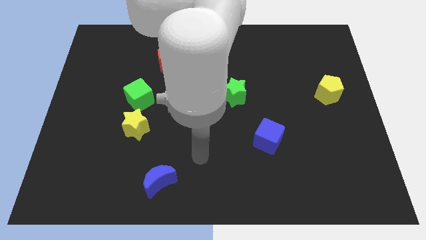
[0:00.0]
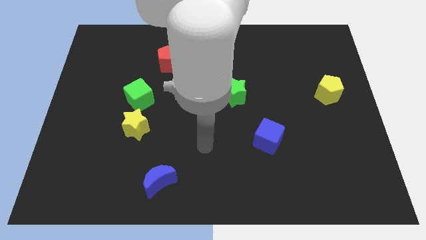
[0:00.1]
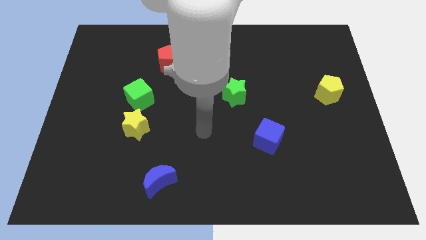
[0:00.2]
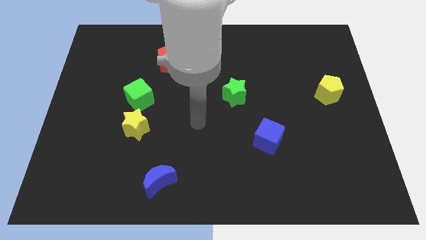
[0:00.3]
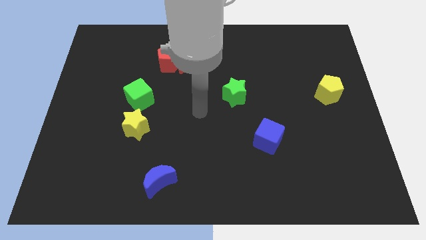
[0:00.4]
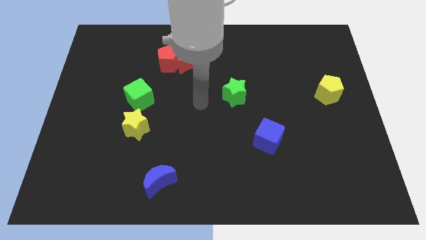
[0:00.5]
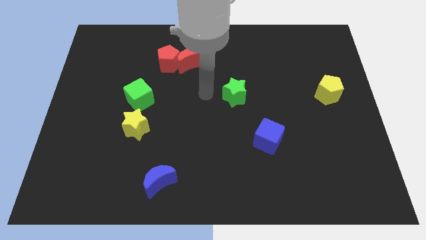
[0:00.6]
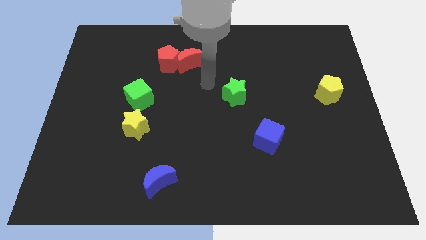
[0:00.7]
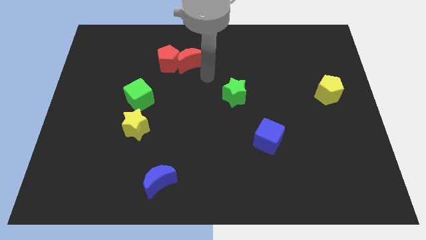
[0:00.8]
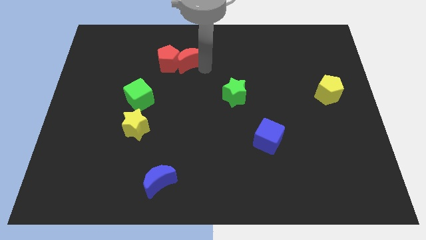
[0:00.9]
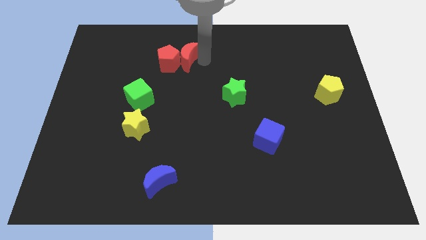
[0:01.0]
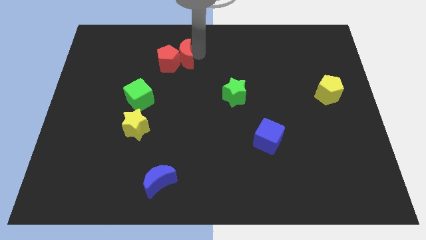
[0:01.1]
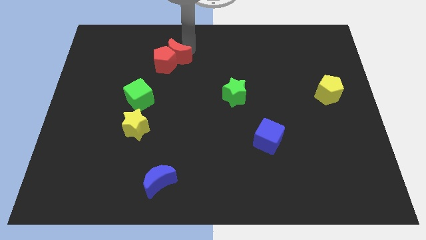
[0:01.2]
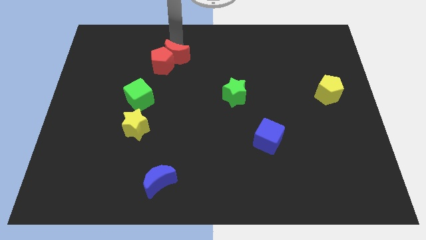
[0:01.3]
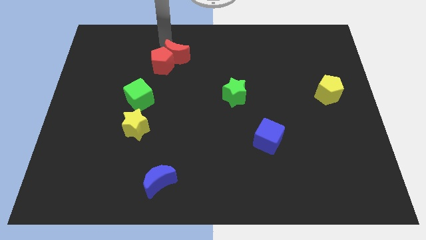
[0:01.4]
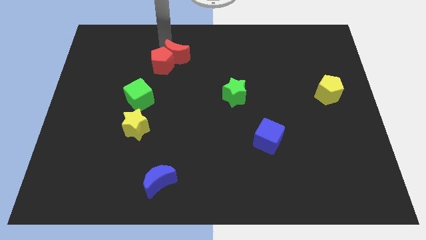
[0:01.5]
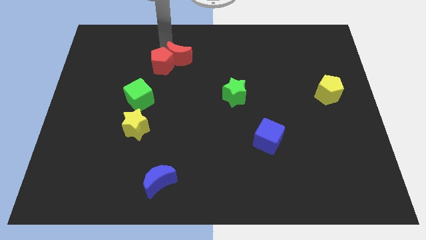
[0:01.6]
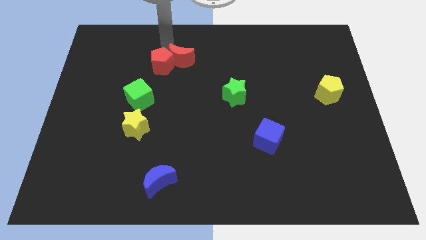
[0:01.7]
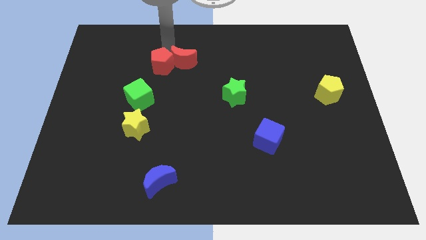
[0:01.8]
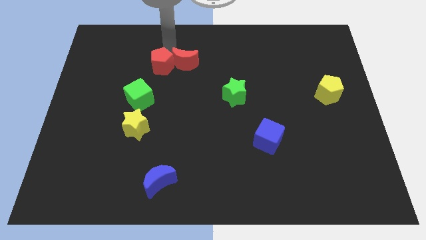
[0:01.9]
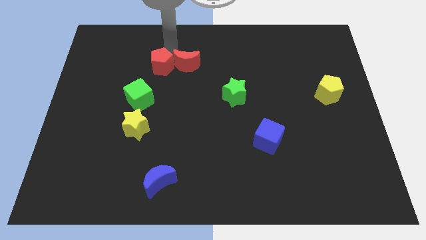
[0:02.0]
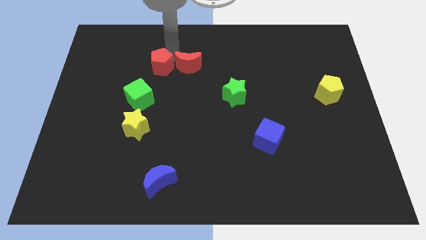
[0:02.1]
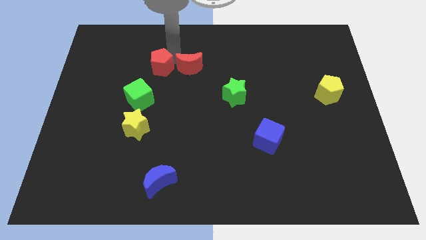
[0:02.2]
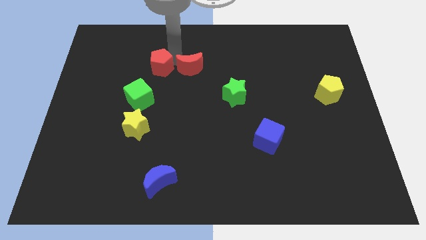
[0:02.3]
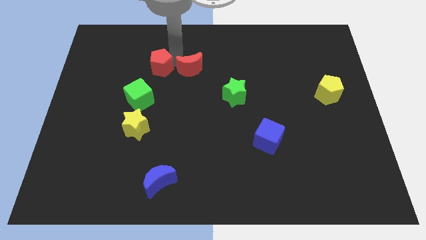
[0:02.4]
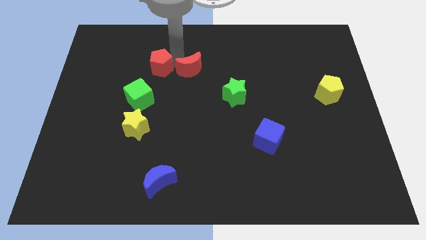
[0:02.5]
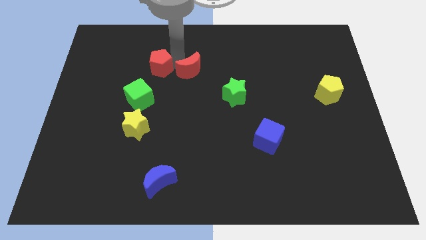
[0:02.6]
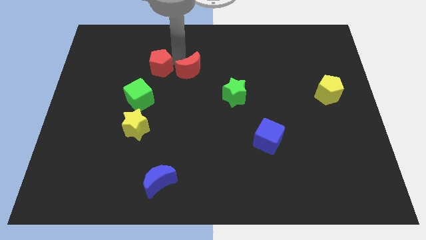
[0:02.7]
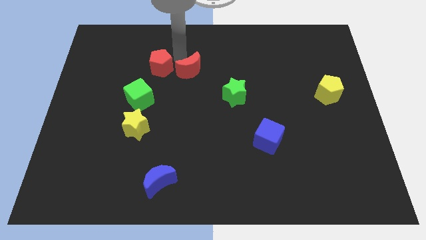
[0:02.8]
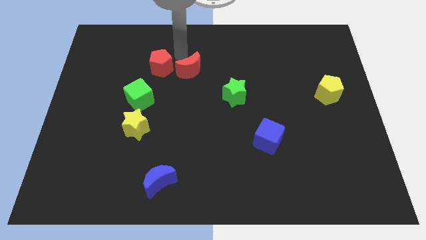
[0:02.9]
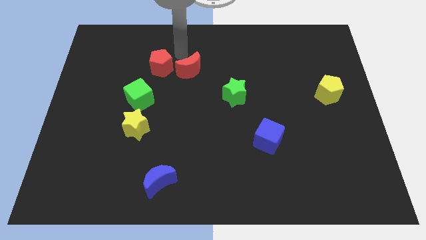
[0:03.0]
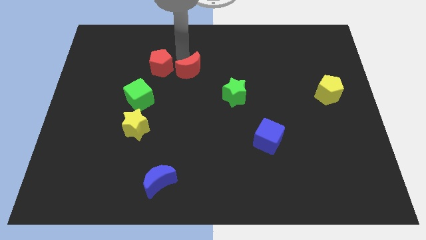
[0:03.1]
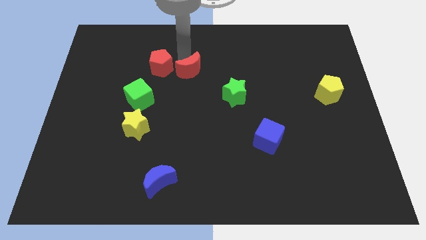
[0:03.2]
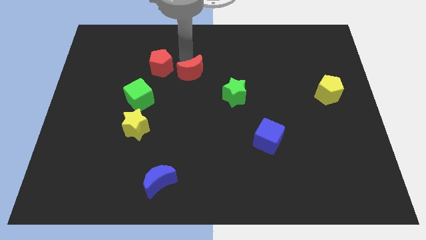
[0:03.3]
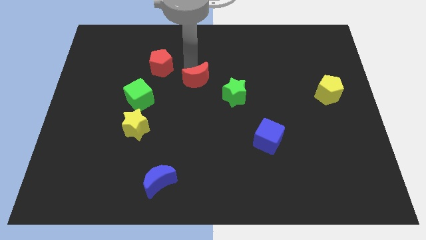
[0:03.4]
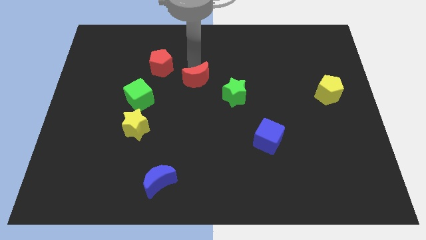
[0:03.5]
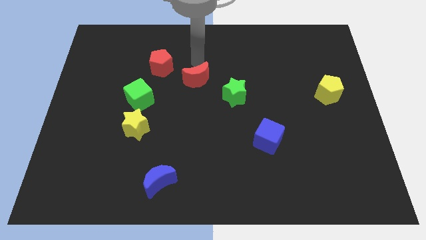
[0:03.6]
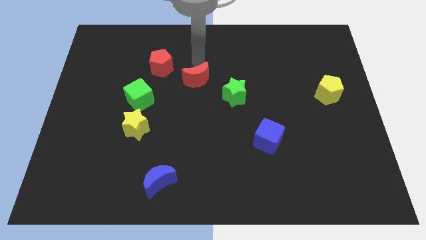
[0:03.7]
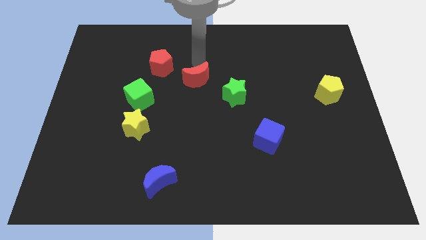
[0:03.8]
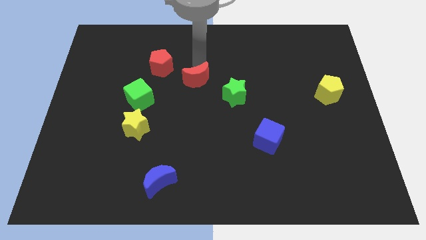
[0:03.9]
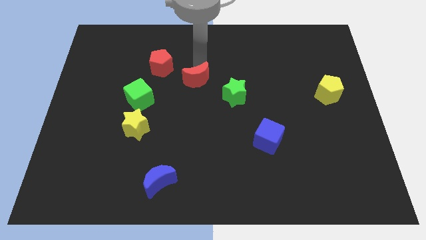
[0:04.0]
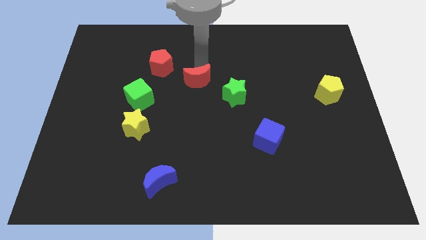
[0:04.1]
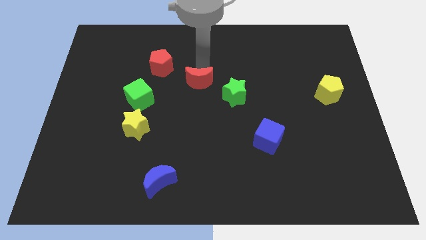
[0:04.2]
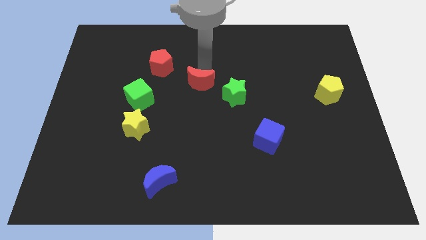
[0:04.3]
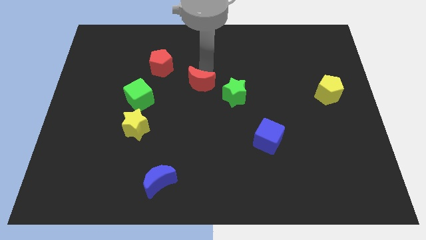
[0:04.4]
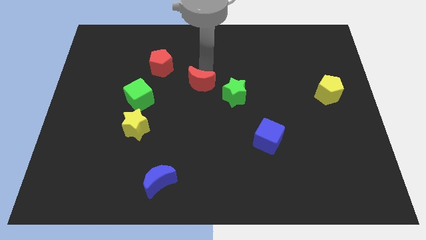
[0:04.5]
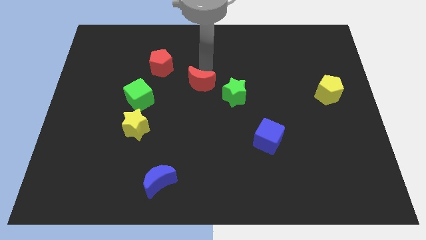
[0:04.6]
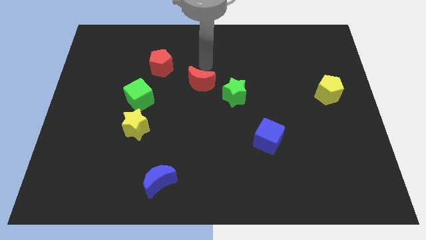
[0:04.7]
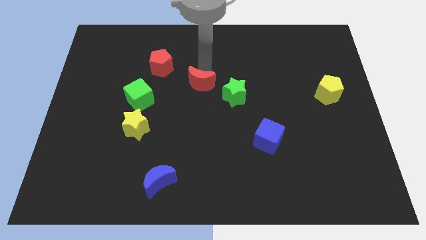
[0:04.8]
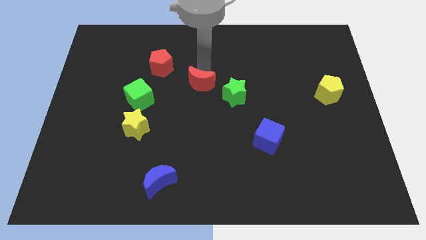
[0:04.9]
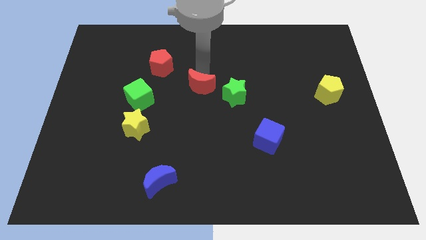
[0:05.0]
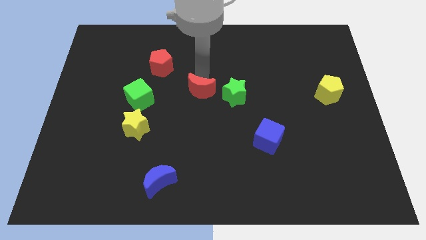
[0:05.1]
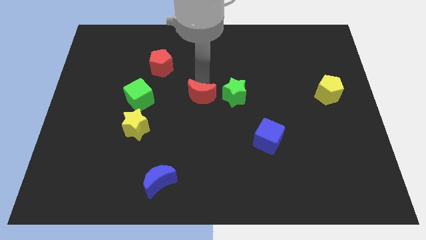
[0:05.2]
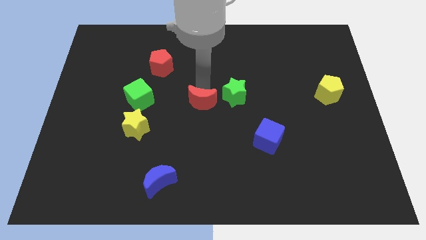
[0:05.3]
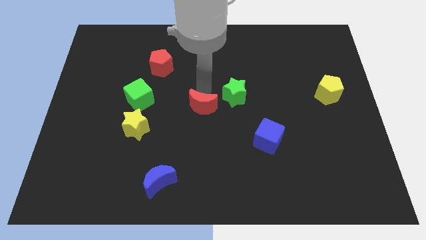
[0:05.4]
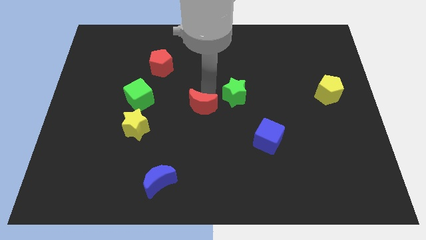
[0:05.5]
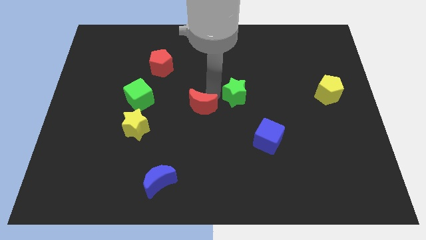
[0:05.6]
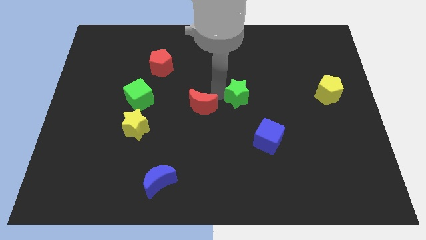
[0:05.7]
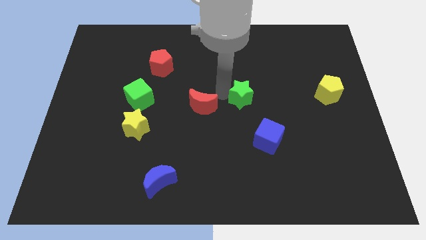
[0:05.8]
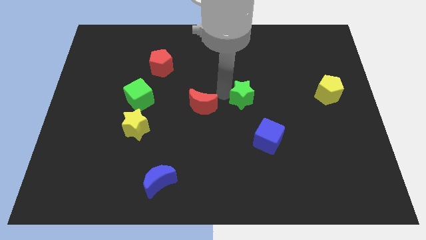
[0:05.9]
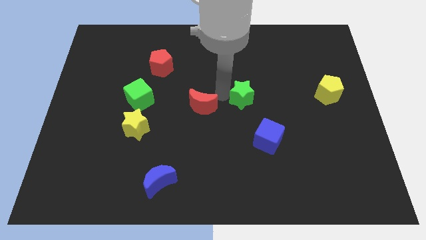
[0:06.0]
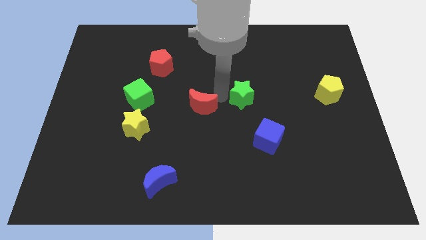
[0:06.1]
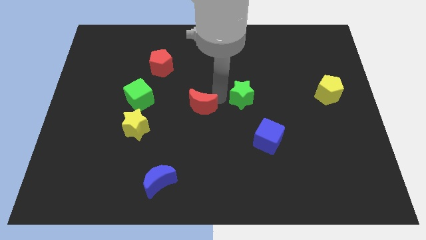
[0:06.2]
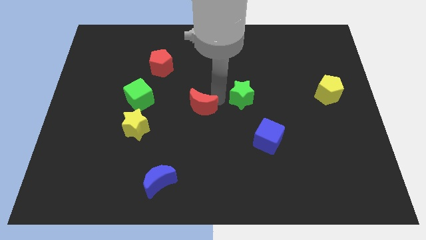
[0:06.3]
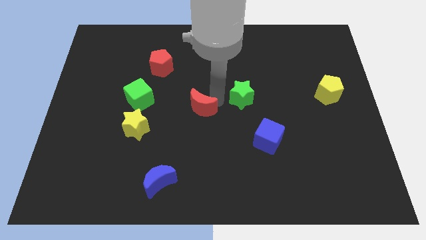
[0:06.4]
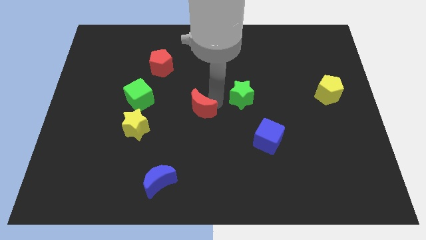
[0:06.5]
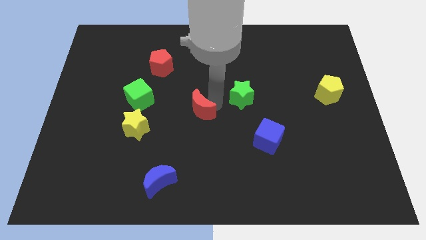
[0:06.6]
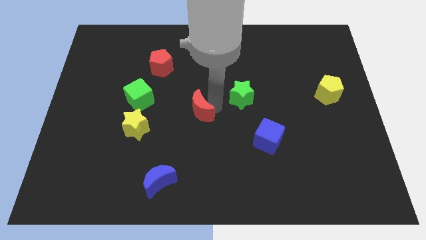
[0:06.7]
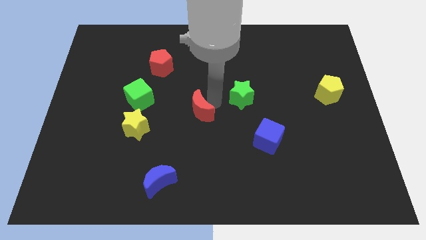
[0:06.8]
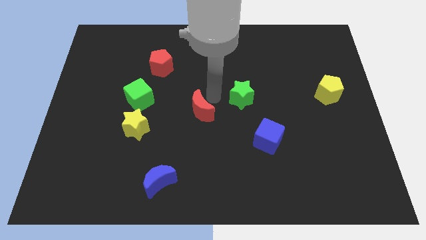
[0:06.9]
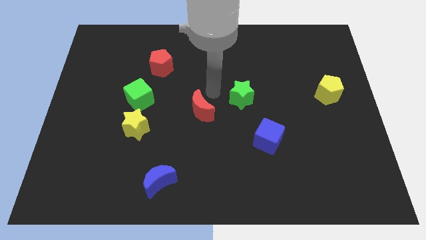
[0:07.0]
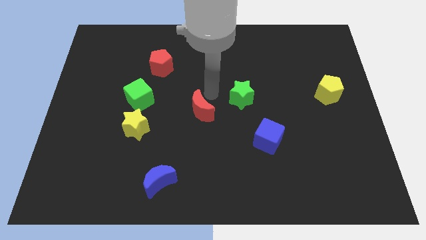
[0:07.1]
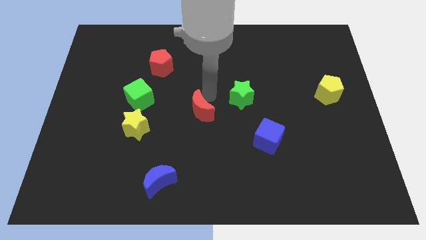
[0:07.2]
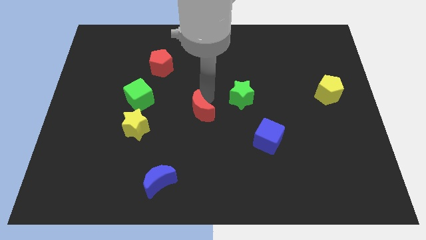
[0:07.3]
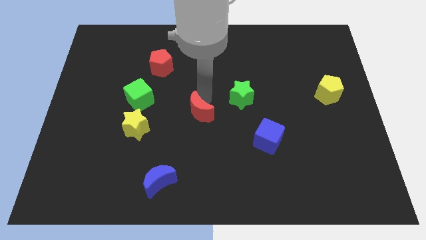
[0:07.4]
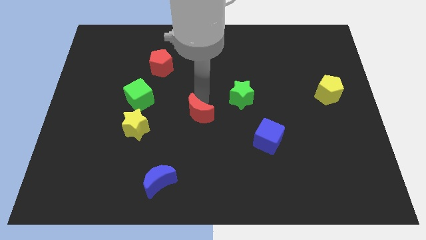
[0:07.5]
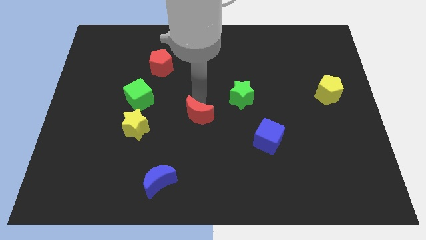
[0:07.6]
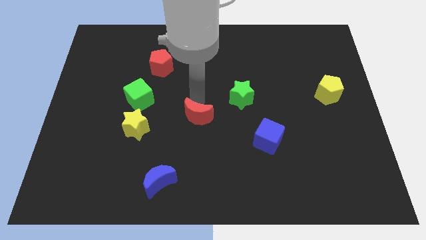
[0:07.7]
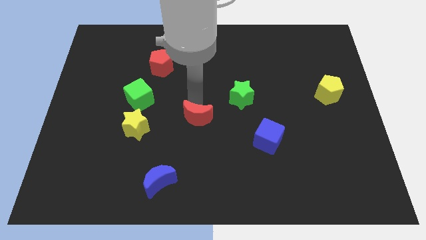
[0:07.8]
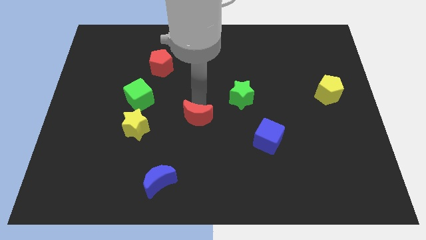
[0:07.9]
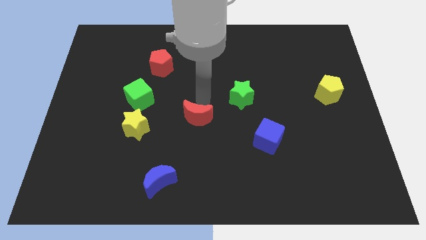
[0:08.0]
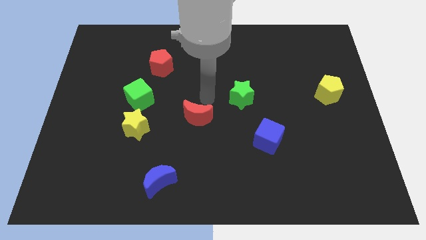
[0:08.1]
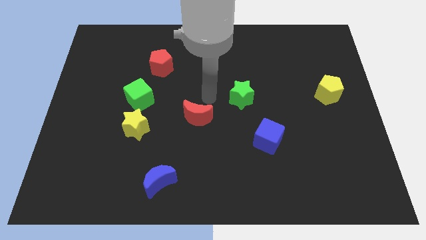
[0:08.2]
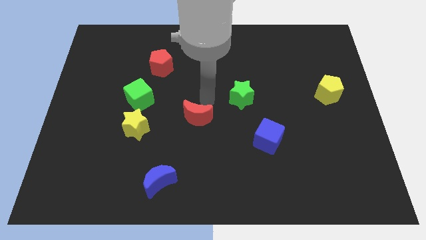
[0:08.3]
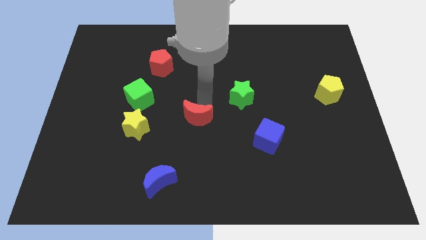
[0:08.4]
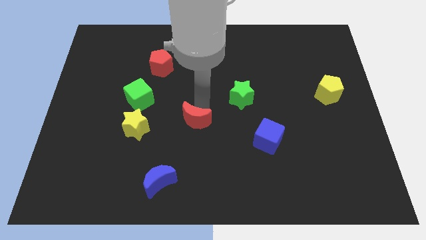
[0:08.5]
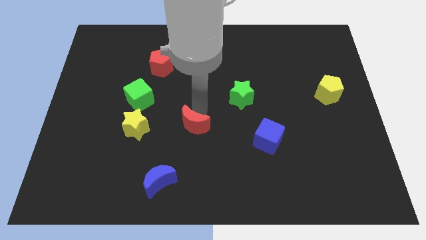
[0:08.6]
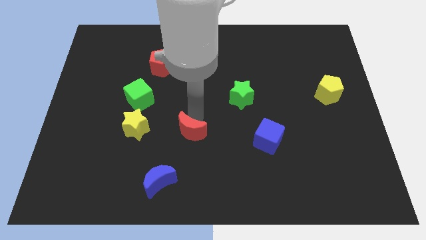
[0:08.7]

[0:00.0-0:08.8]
move the red moon down
